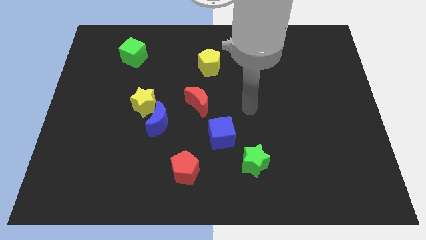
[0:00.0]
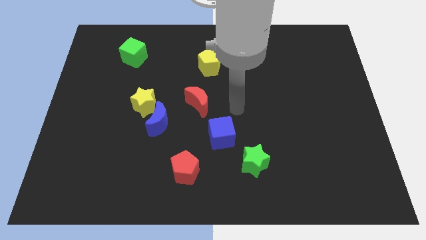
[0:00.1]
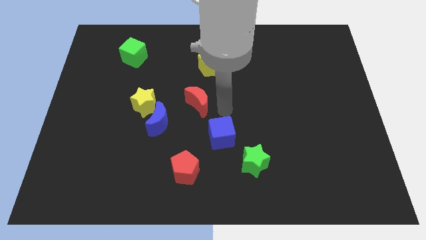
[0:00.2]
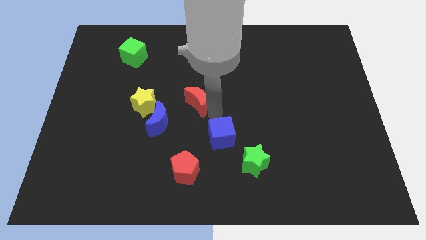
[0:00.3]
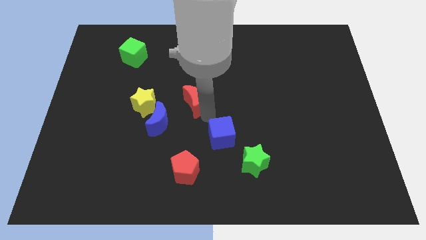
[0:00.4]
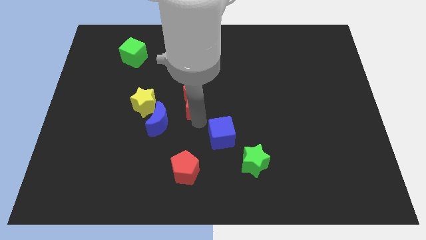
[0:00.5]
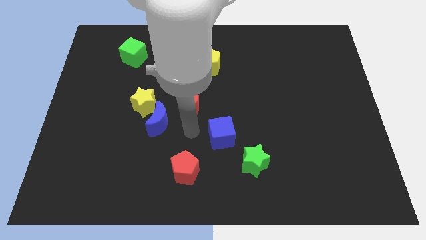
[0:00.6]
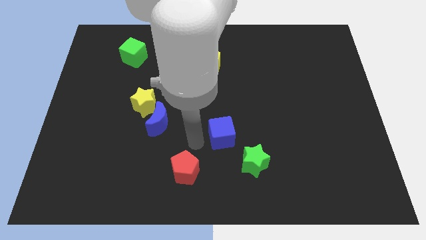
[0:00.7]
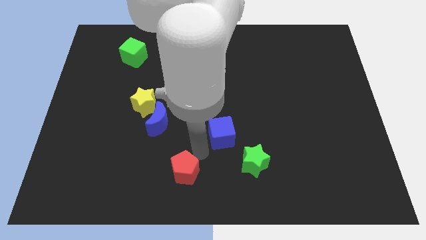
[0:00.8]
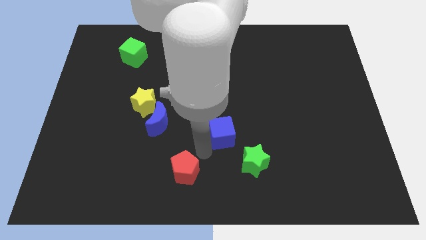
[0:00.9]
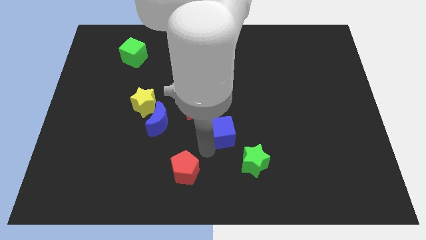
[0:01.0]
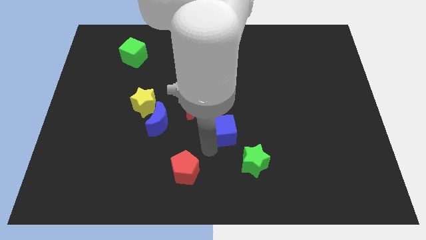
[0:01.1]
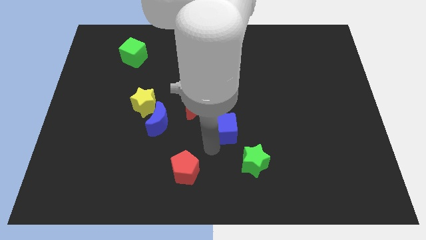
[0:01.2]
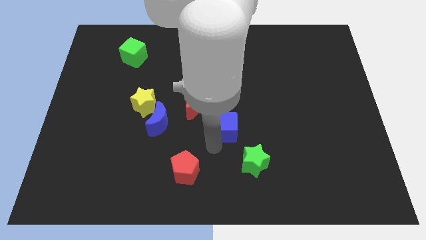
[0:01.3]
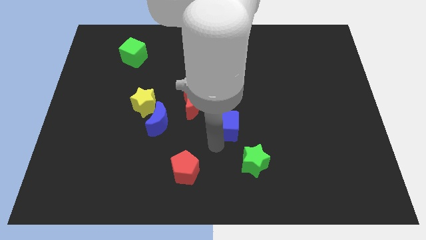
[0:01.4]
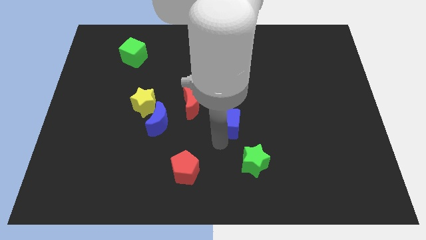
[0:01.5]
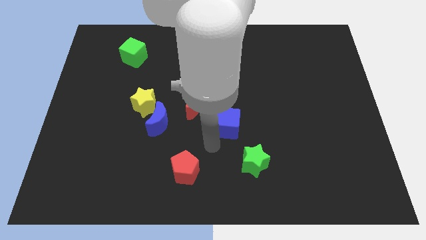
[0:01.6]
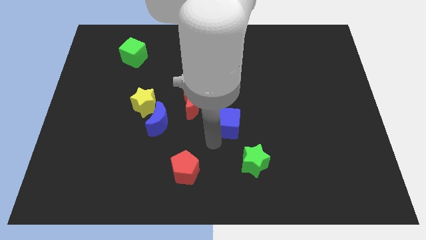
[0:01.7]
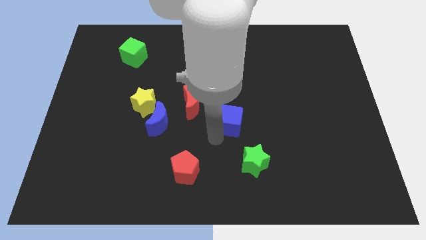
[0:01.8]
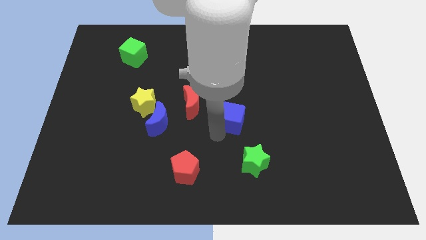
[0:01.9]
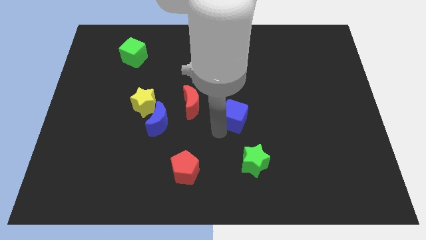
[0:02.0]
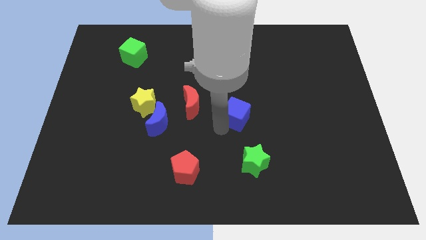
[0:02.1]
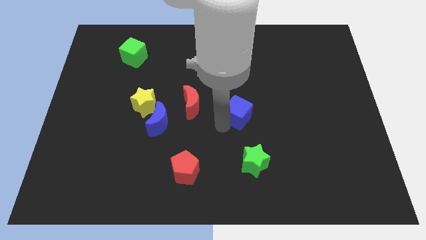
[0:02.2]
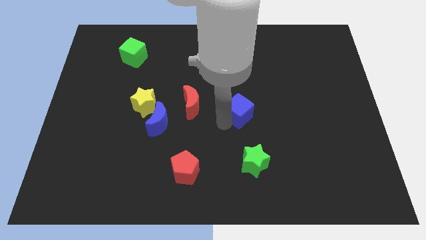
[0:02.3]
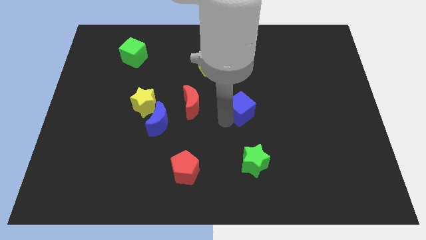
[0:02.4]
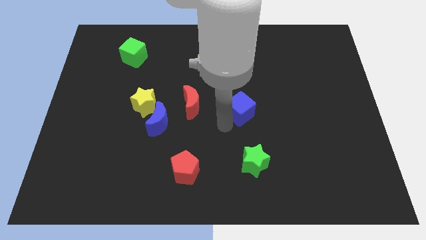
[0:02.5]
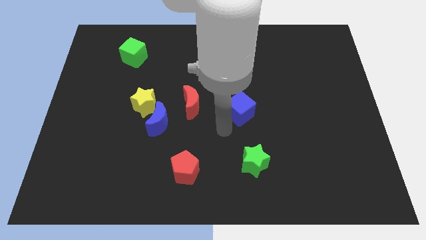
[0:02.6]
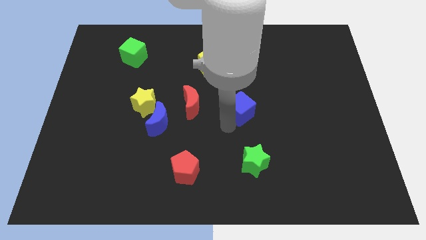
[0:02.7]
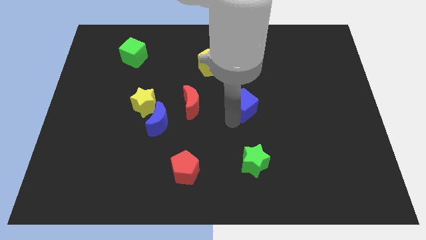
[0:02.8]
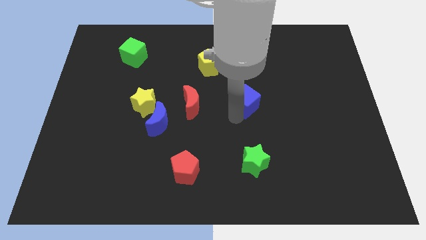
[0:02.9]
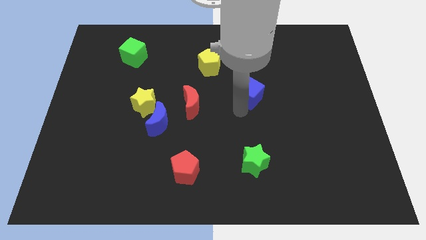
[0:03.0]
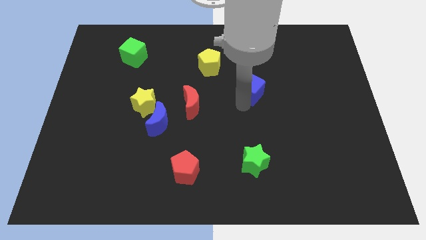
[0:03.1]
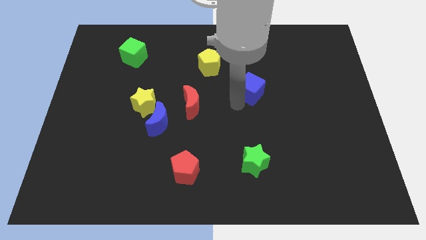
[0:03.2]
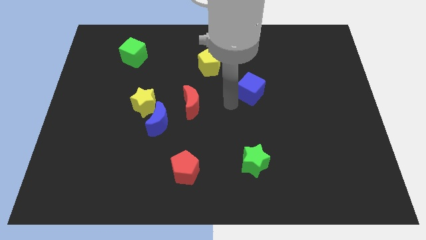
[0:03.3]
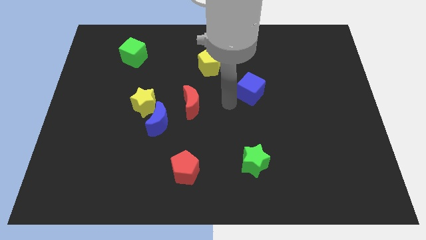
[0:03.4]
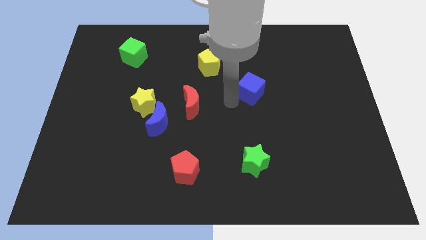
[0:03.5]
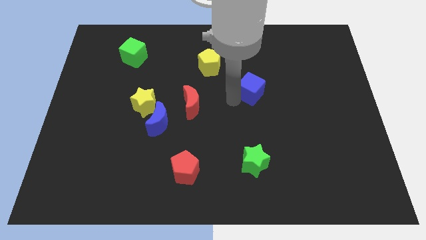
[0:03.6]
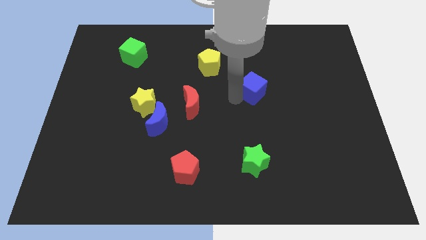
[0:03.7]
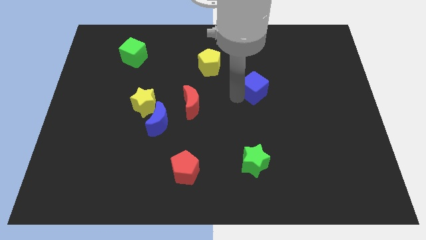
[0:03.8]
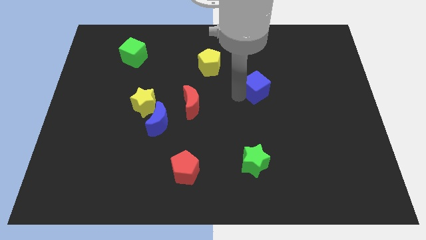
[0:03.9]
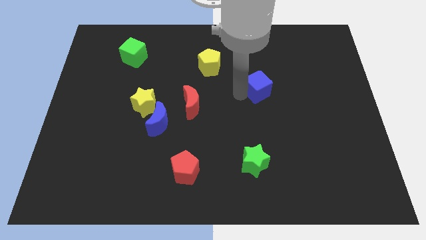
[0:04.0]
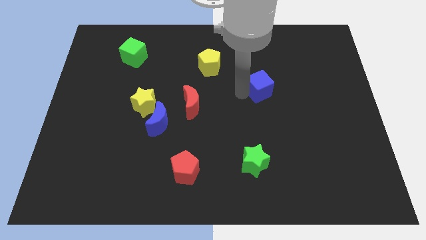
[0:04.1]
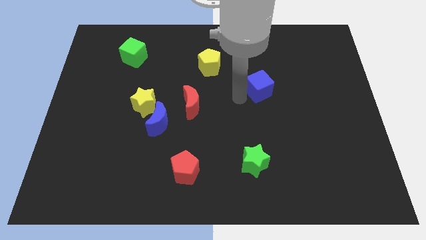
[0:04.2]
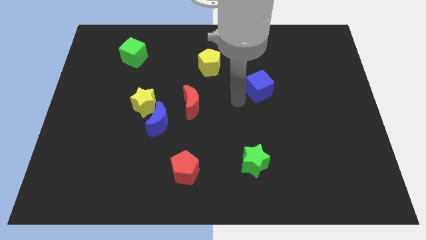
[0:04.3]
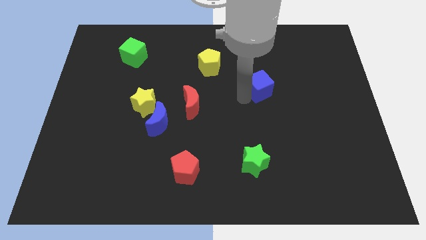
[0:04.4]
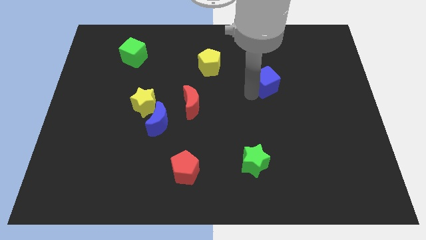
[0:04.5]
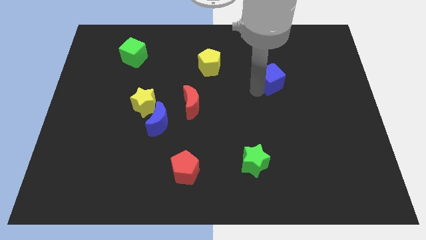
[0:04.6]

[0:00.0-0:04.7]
slide the blue cube up and right diagonally

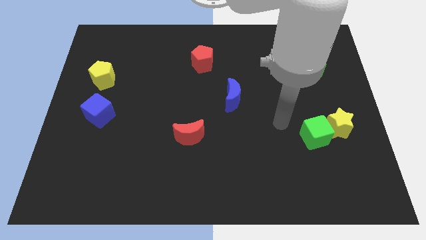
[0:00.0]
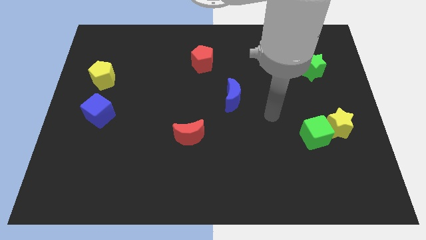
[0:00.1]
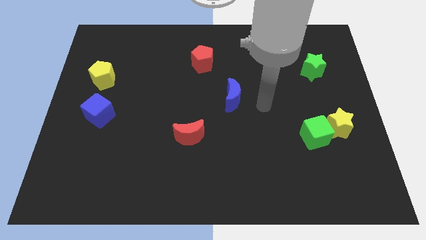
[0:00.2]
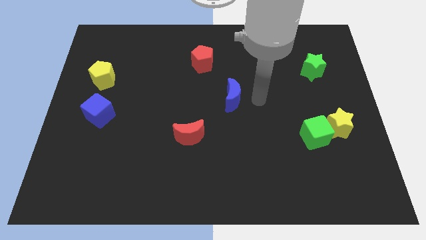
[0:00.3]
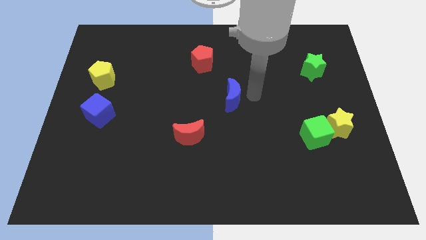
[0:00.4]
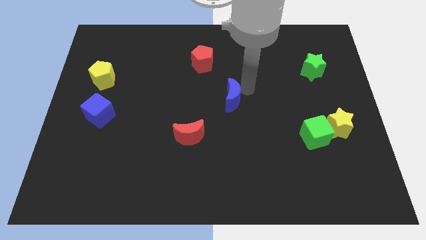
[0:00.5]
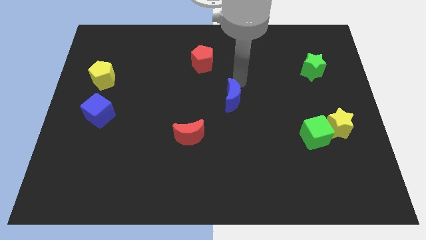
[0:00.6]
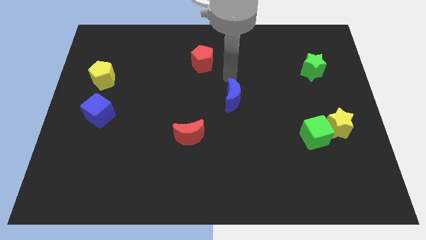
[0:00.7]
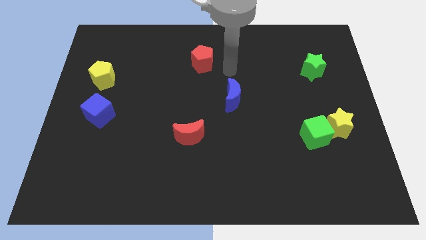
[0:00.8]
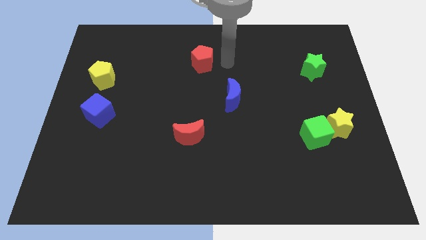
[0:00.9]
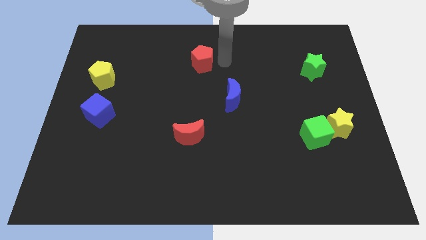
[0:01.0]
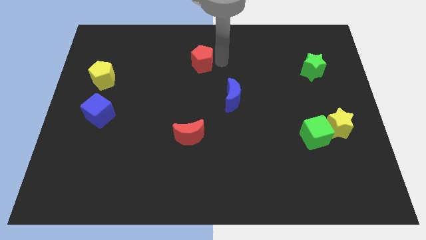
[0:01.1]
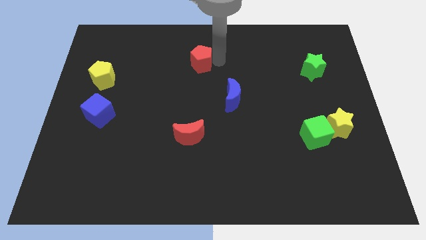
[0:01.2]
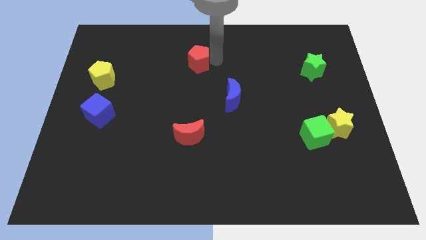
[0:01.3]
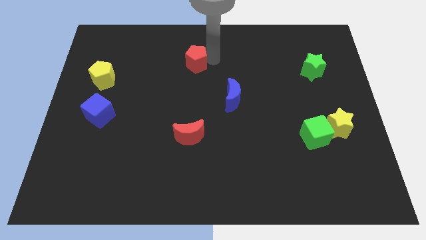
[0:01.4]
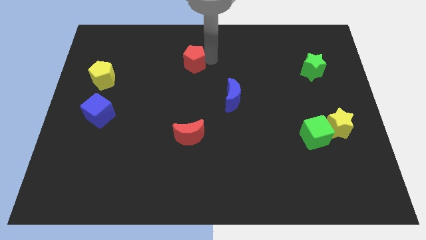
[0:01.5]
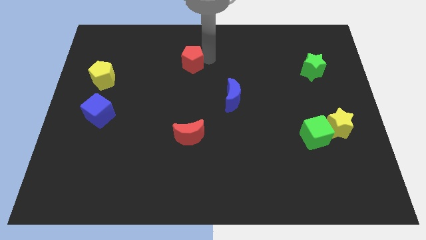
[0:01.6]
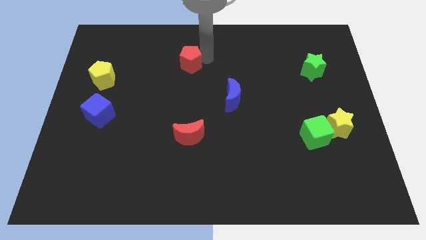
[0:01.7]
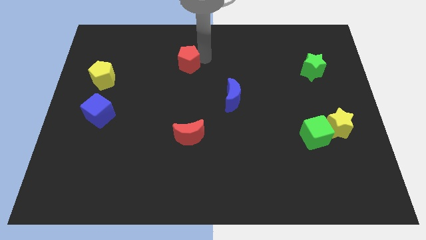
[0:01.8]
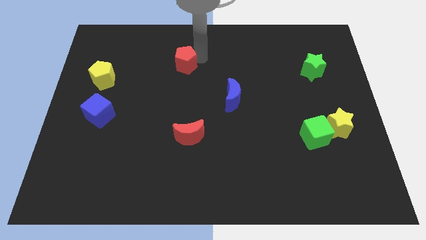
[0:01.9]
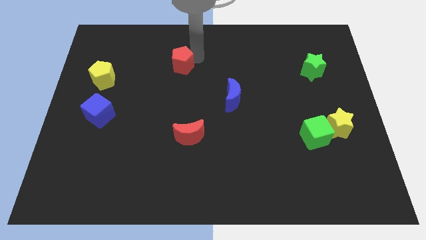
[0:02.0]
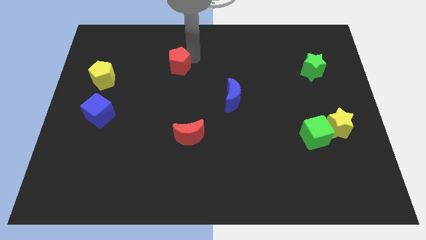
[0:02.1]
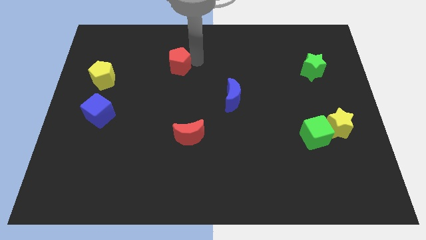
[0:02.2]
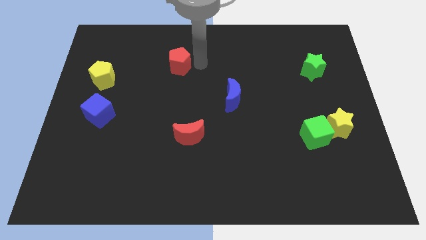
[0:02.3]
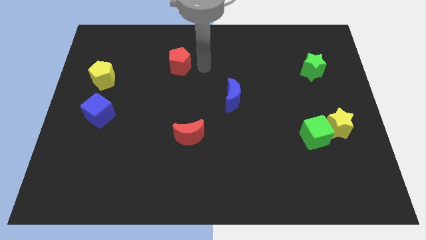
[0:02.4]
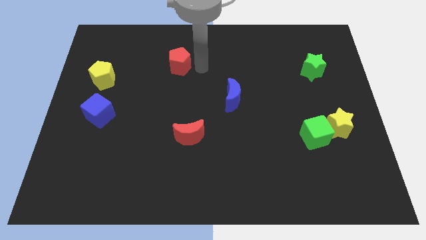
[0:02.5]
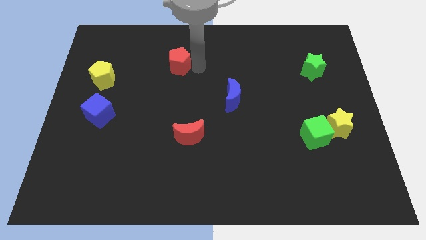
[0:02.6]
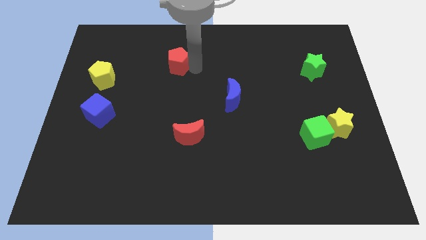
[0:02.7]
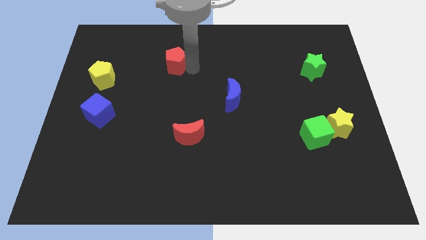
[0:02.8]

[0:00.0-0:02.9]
push the red pentagon left a bit

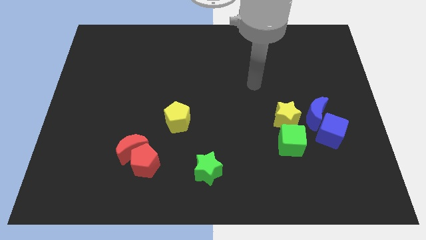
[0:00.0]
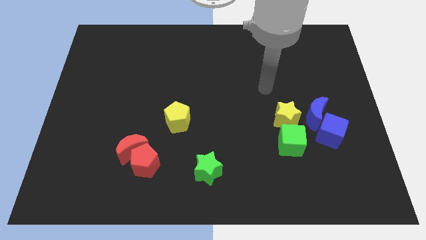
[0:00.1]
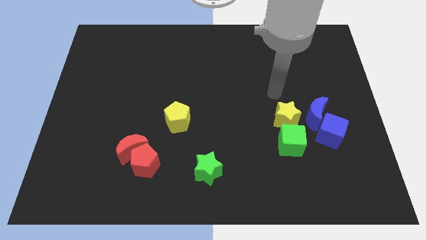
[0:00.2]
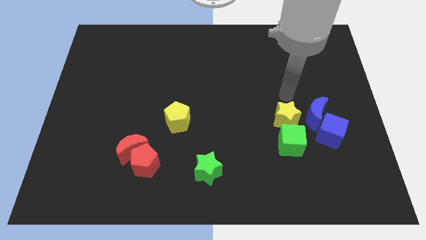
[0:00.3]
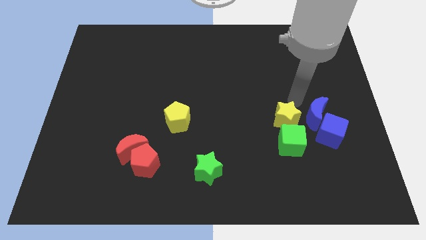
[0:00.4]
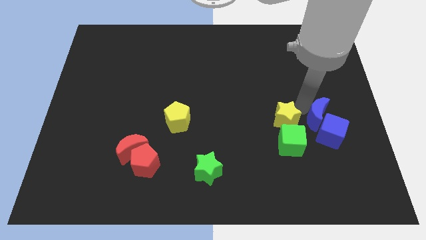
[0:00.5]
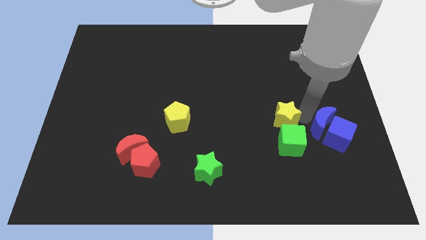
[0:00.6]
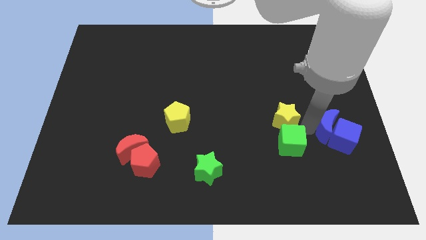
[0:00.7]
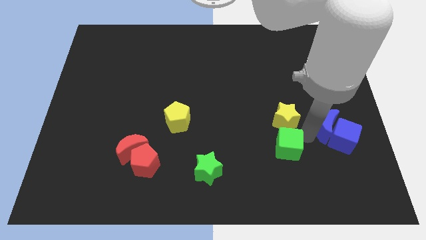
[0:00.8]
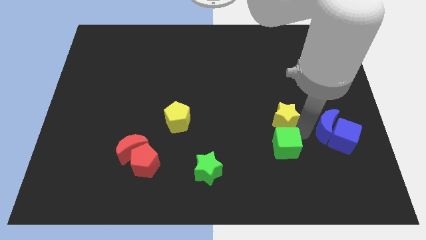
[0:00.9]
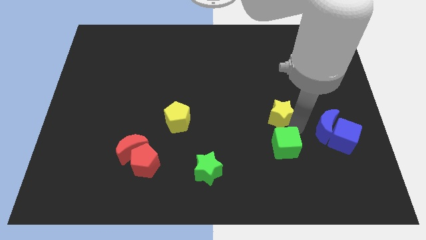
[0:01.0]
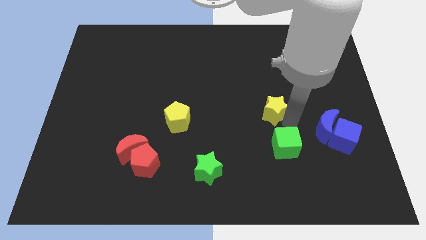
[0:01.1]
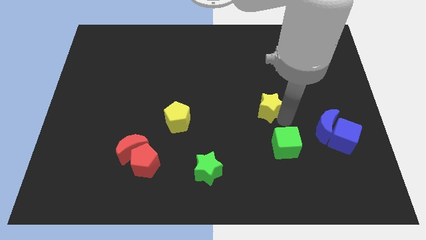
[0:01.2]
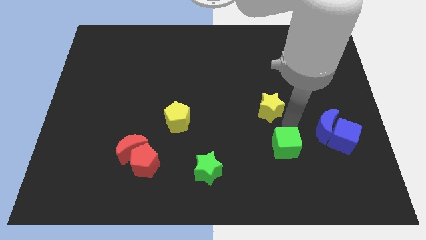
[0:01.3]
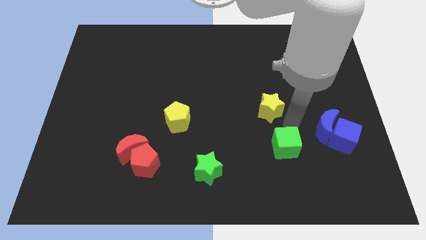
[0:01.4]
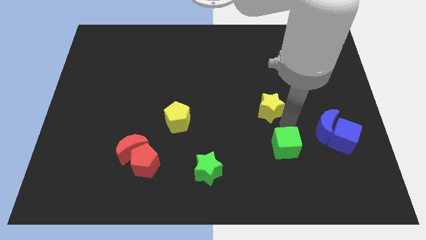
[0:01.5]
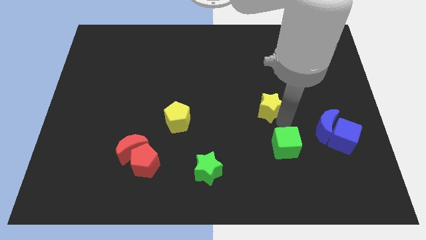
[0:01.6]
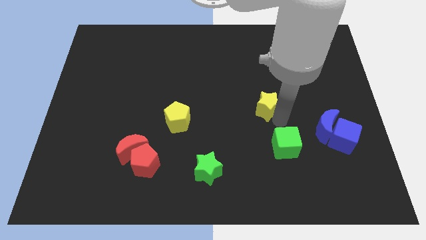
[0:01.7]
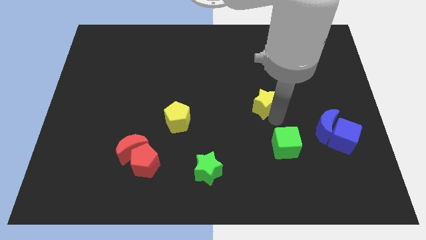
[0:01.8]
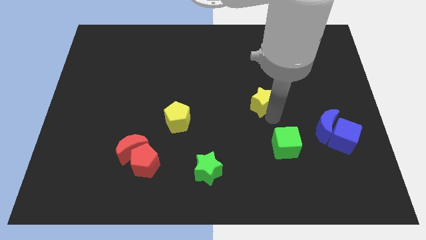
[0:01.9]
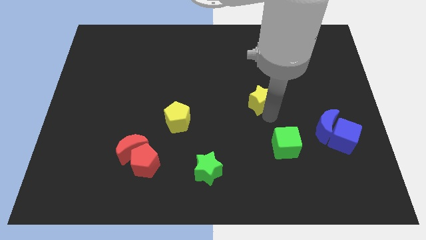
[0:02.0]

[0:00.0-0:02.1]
slightly push the yellow star diagonally up and left
